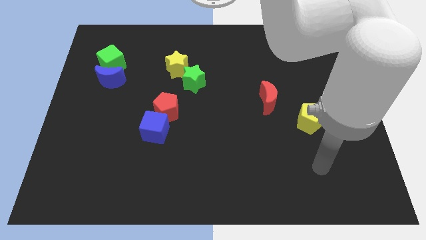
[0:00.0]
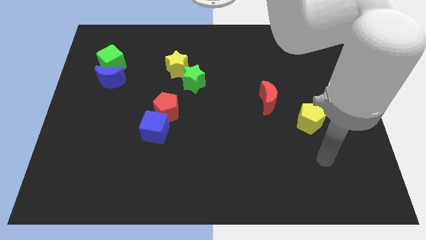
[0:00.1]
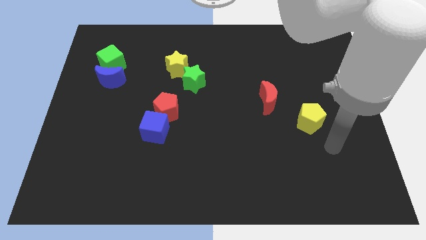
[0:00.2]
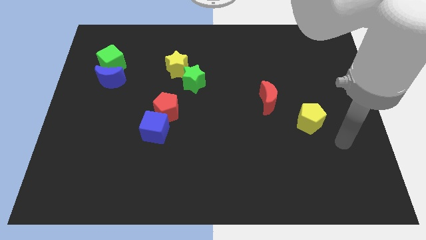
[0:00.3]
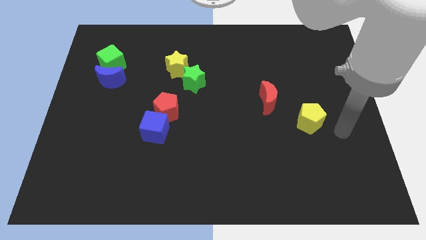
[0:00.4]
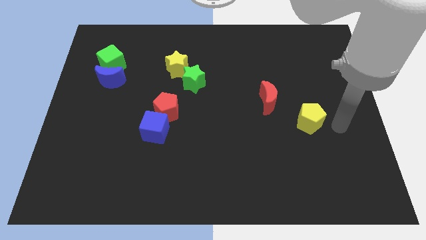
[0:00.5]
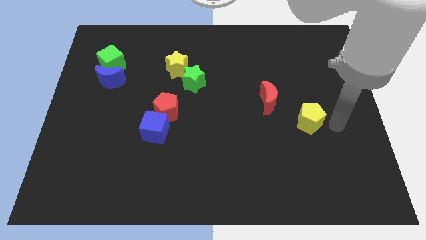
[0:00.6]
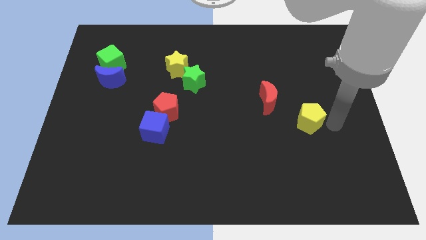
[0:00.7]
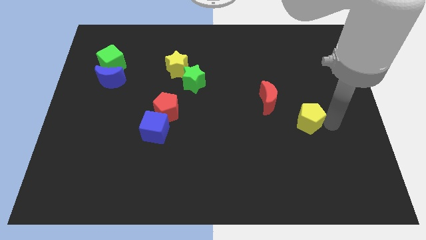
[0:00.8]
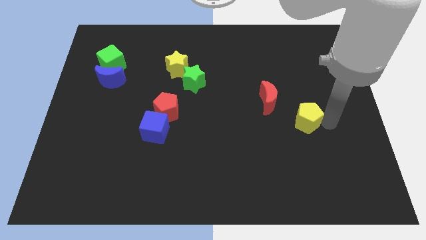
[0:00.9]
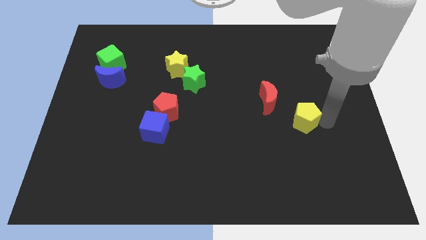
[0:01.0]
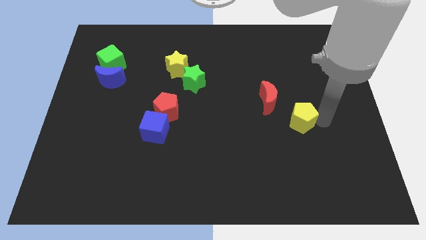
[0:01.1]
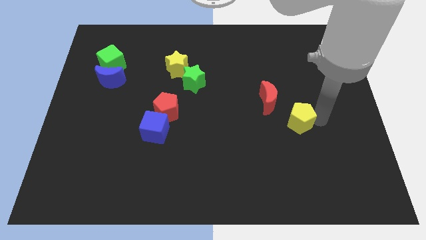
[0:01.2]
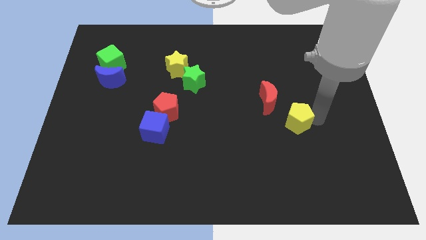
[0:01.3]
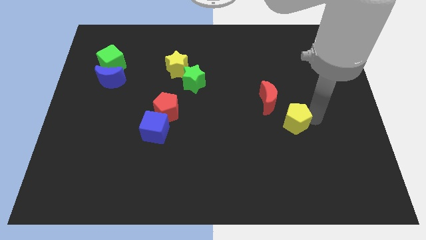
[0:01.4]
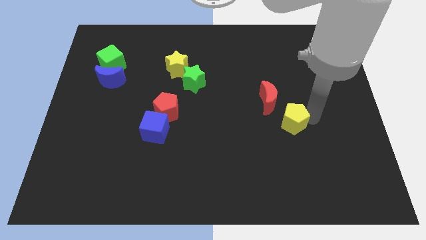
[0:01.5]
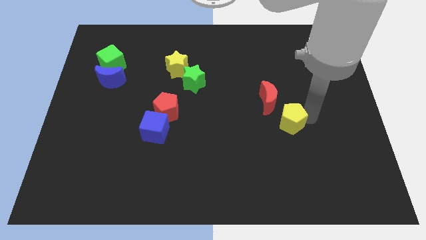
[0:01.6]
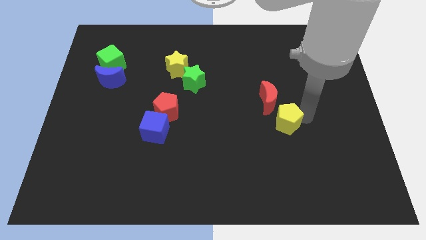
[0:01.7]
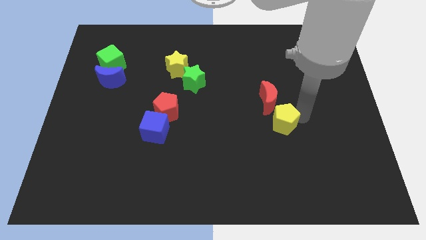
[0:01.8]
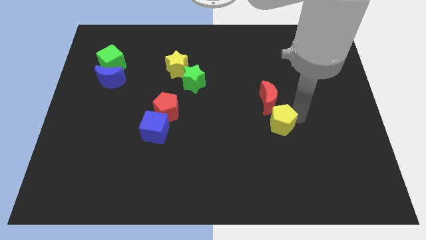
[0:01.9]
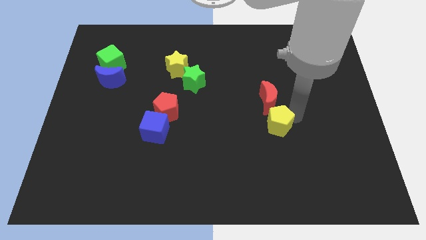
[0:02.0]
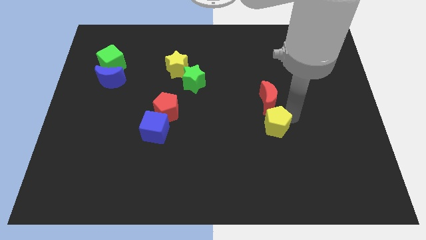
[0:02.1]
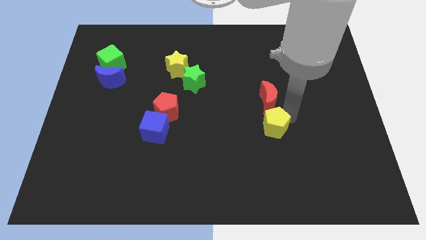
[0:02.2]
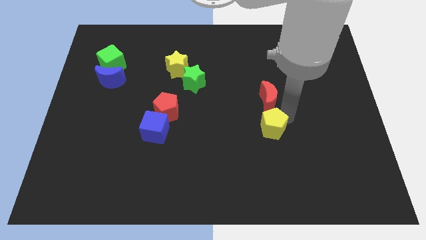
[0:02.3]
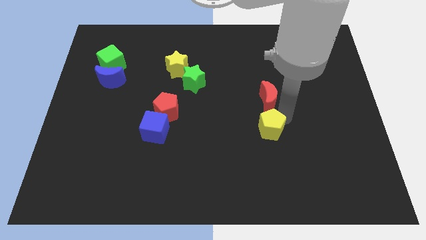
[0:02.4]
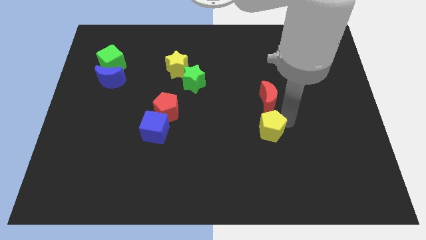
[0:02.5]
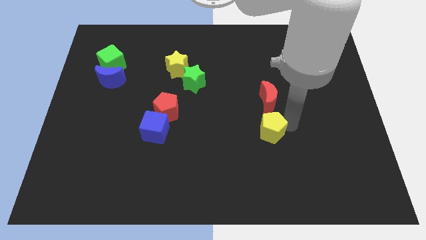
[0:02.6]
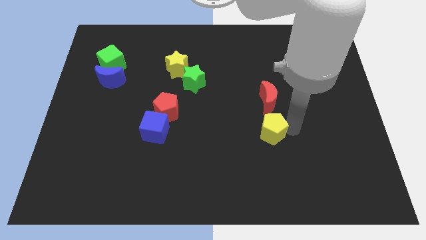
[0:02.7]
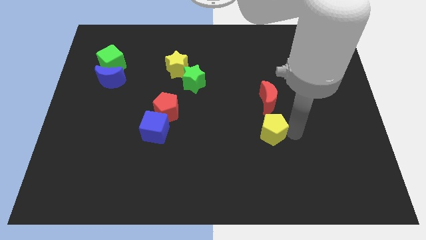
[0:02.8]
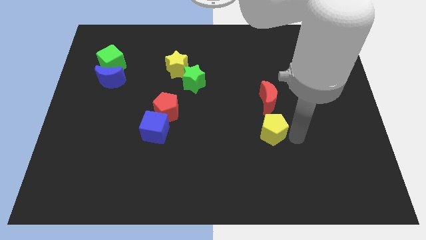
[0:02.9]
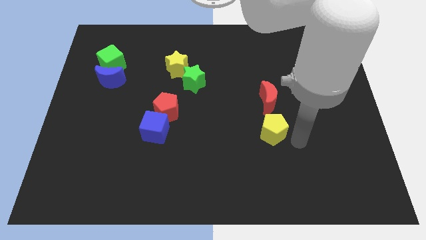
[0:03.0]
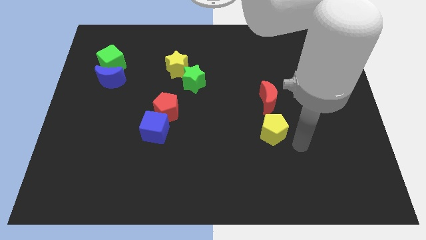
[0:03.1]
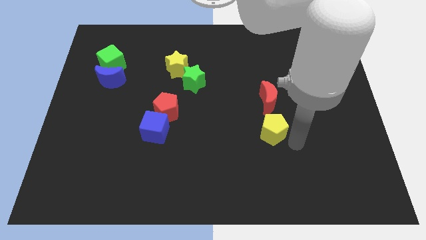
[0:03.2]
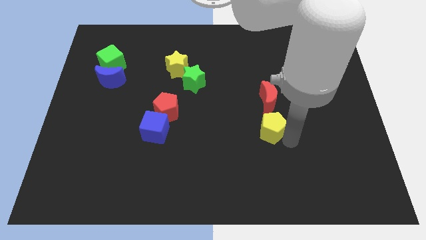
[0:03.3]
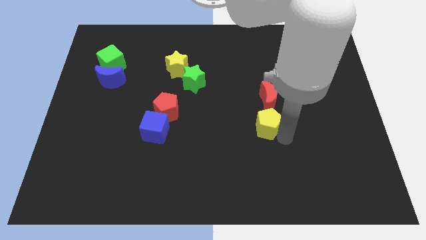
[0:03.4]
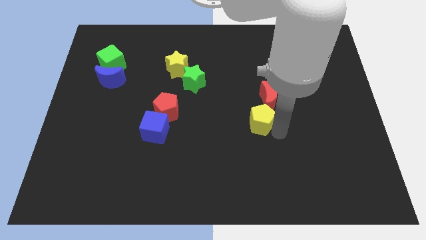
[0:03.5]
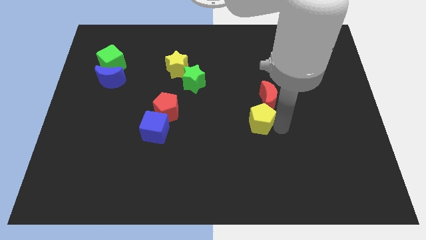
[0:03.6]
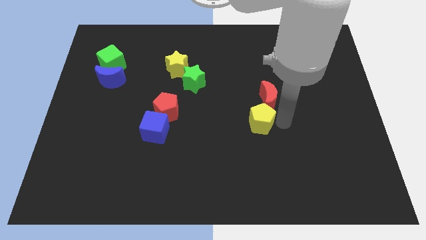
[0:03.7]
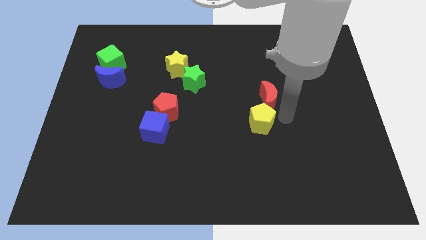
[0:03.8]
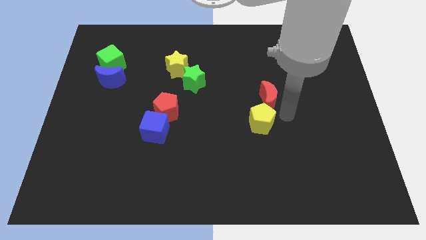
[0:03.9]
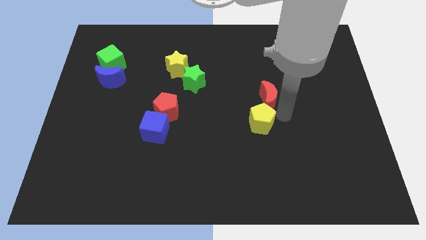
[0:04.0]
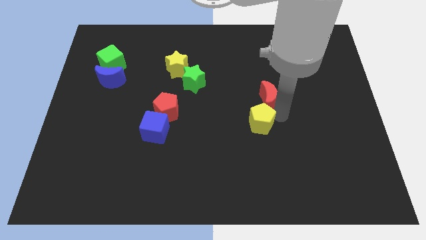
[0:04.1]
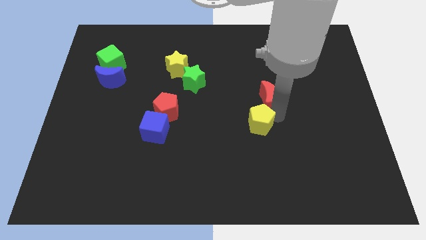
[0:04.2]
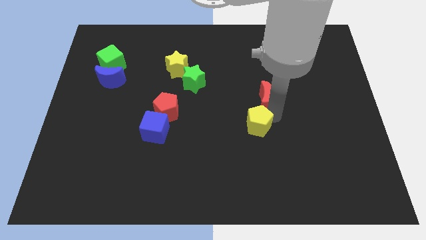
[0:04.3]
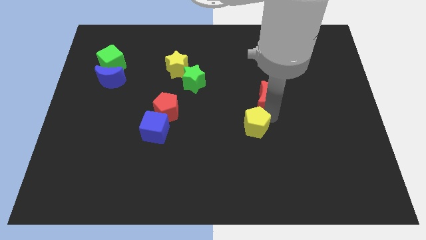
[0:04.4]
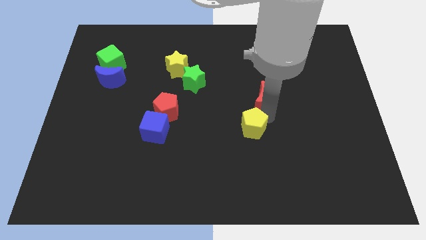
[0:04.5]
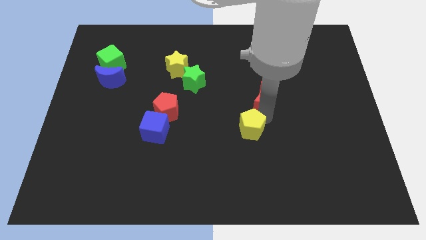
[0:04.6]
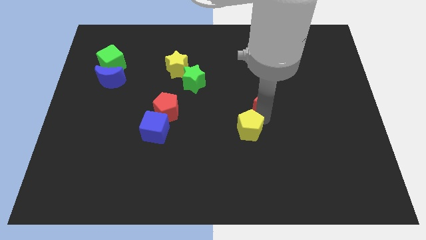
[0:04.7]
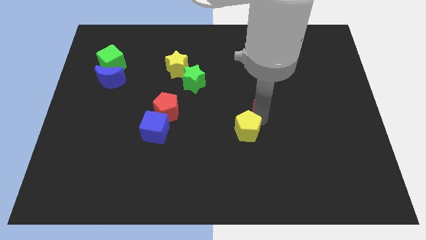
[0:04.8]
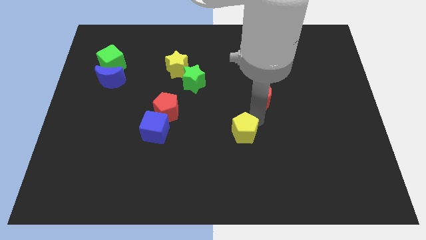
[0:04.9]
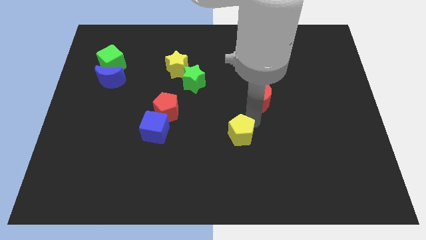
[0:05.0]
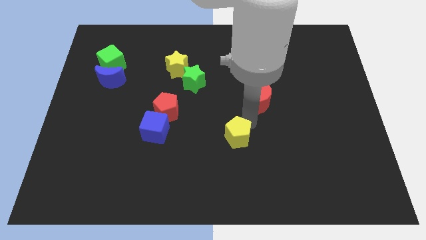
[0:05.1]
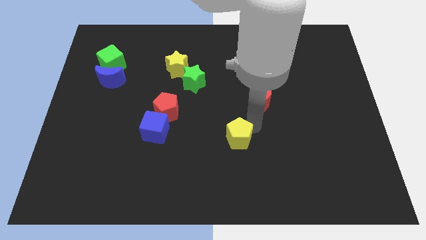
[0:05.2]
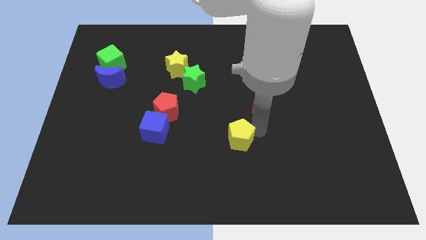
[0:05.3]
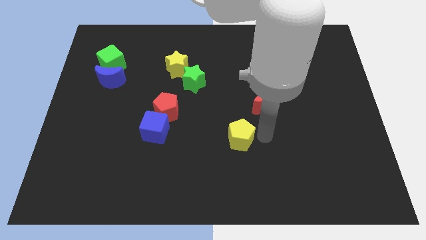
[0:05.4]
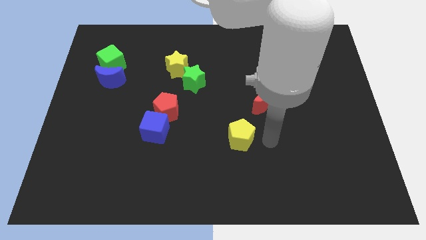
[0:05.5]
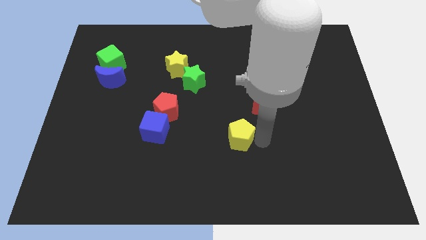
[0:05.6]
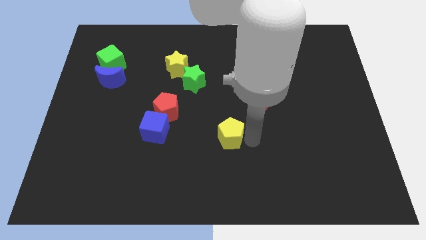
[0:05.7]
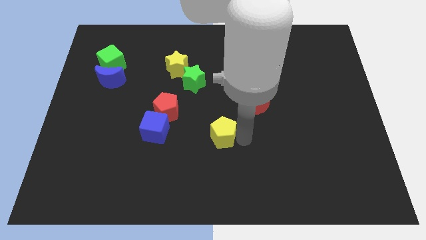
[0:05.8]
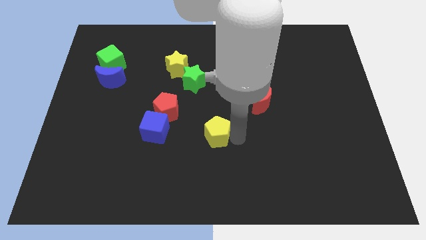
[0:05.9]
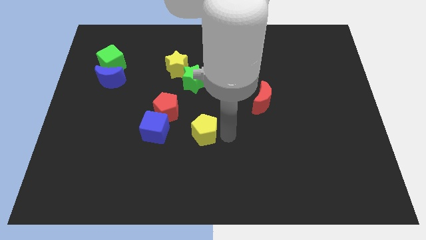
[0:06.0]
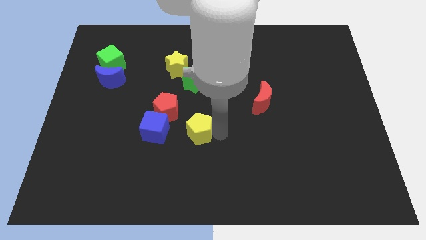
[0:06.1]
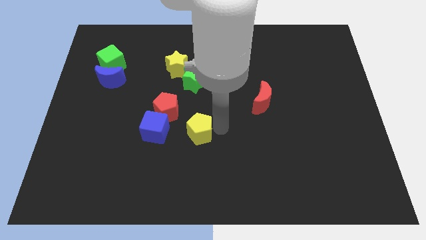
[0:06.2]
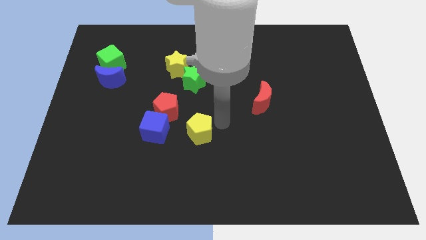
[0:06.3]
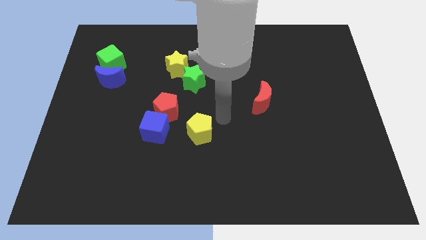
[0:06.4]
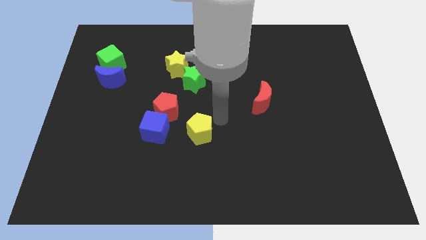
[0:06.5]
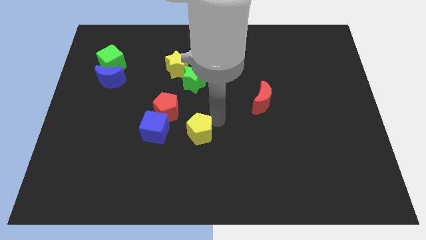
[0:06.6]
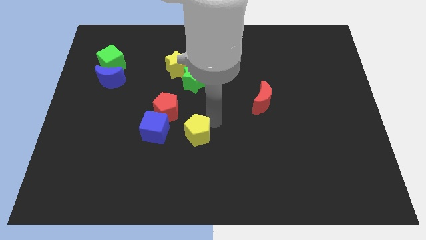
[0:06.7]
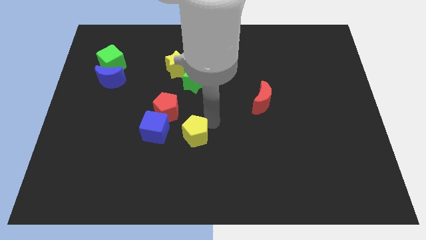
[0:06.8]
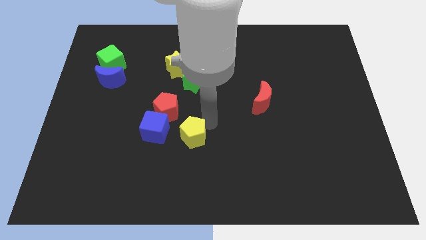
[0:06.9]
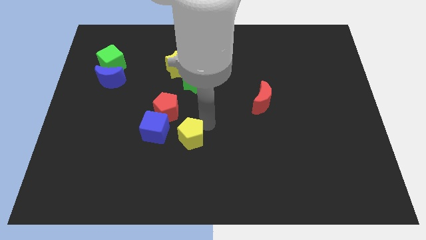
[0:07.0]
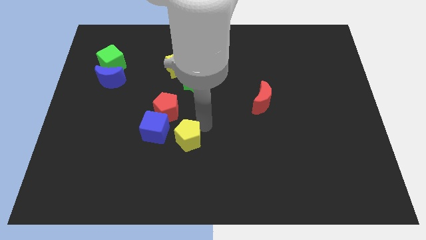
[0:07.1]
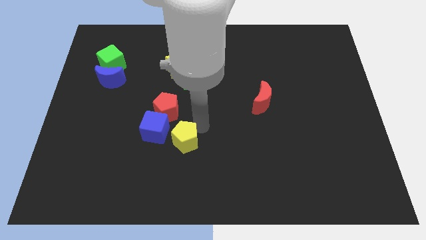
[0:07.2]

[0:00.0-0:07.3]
slide the yellow pentagon below the red pentagon
